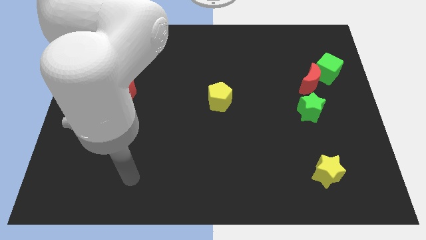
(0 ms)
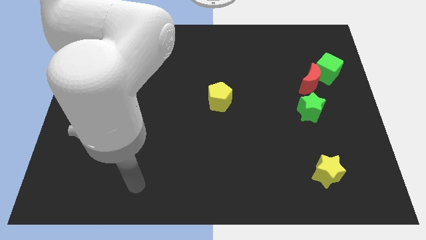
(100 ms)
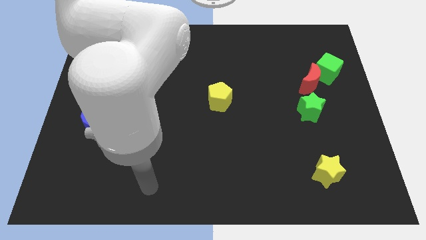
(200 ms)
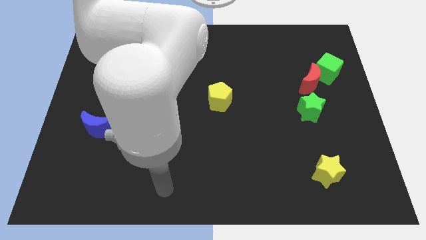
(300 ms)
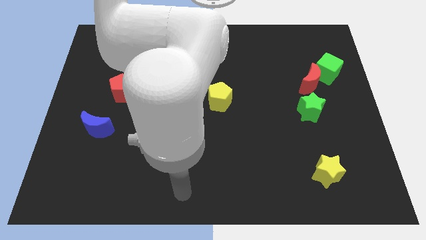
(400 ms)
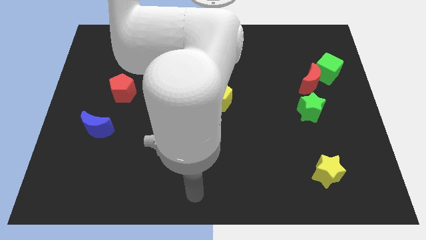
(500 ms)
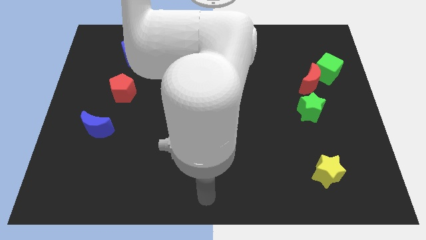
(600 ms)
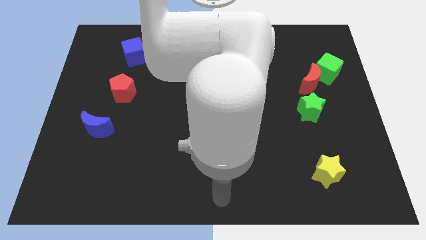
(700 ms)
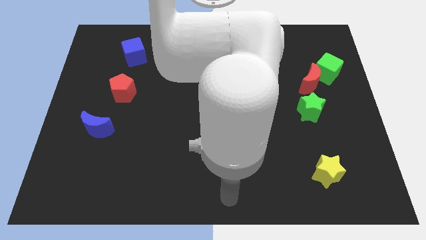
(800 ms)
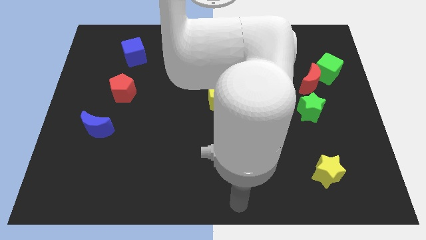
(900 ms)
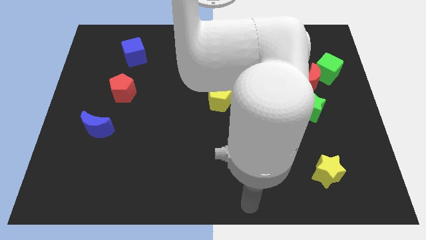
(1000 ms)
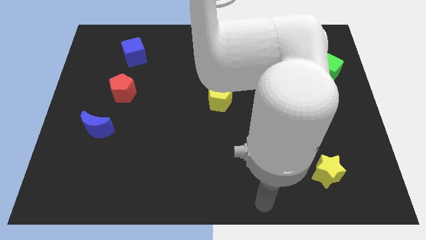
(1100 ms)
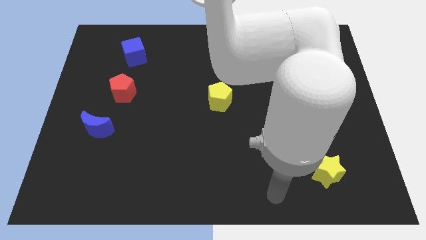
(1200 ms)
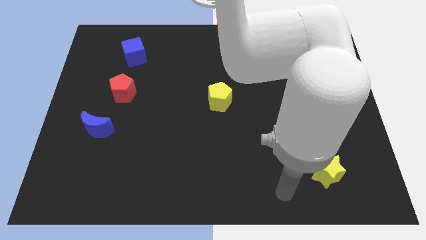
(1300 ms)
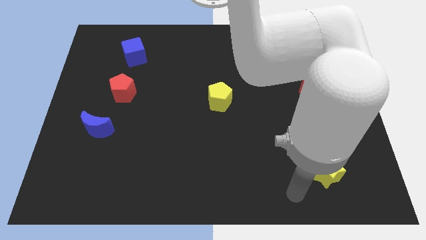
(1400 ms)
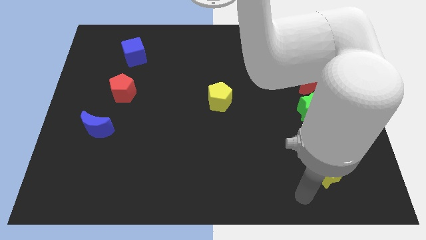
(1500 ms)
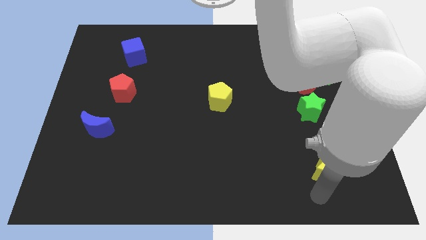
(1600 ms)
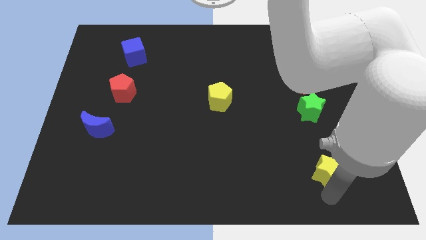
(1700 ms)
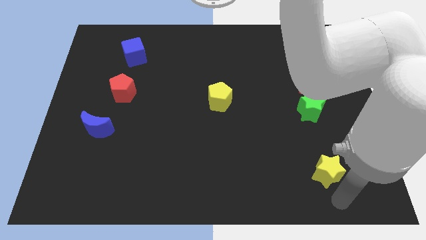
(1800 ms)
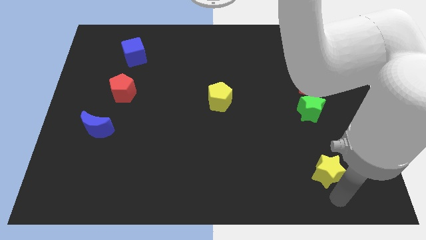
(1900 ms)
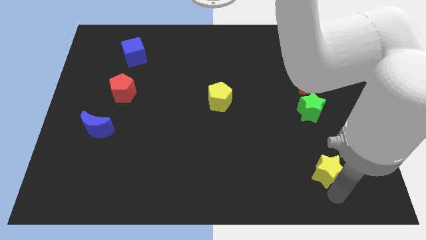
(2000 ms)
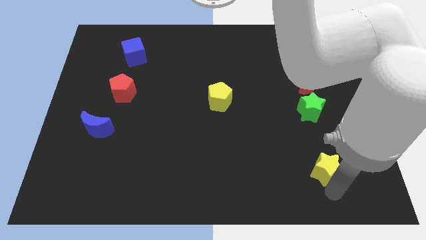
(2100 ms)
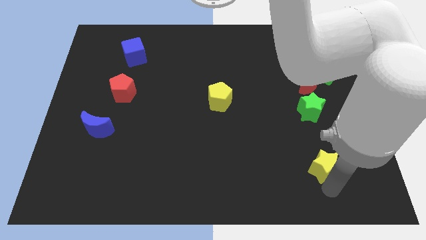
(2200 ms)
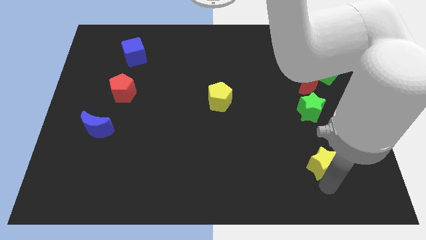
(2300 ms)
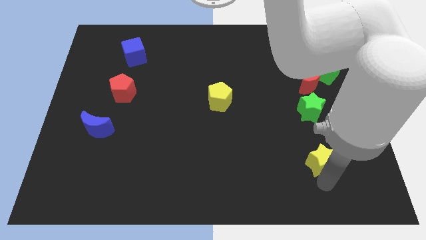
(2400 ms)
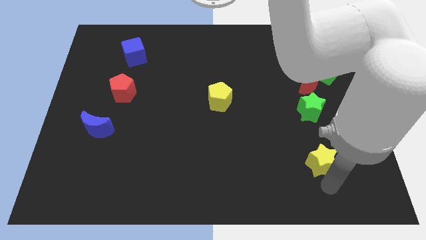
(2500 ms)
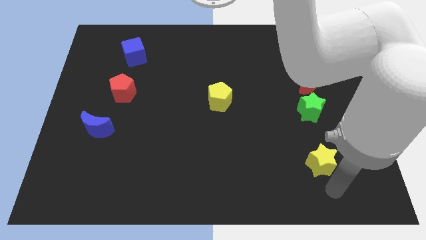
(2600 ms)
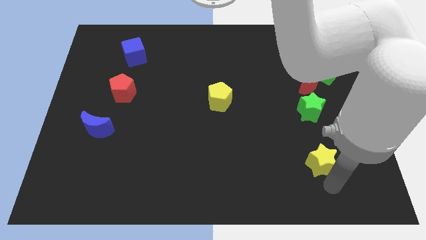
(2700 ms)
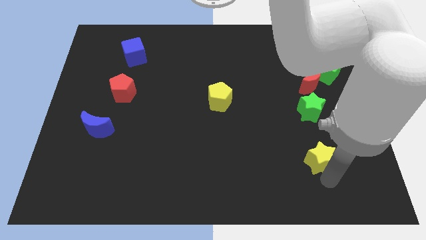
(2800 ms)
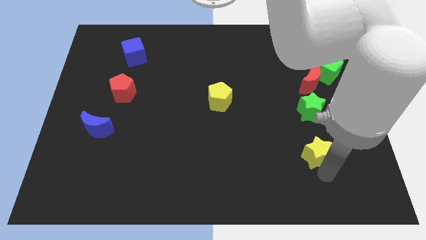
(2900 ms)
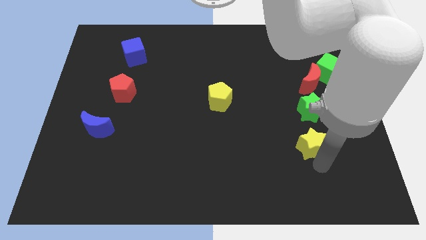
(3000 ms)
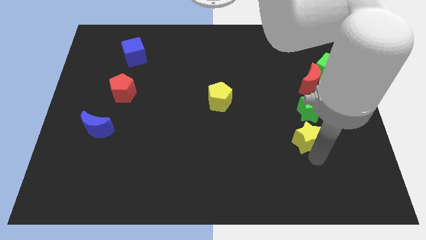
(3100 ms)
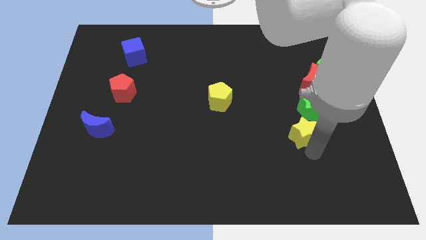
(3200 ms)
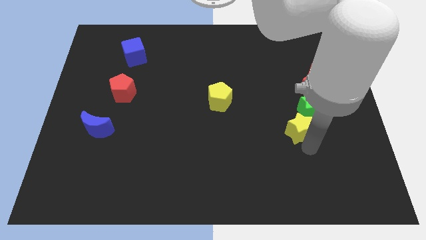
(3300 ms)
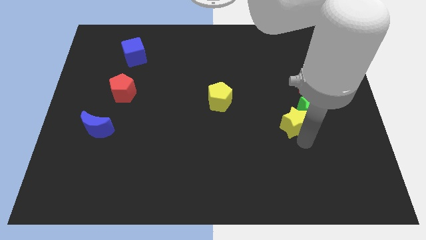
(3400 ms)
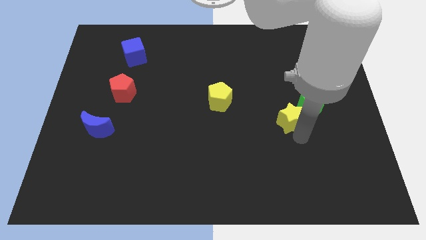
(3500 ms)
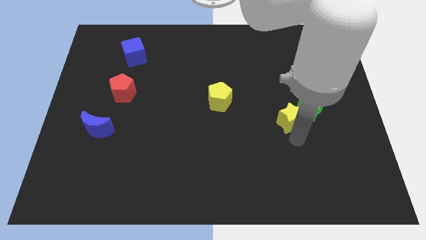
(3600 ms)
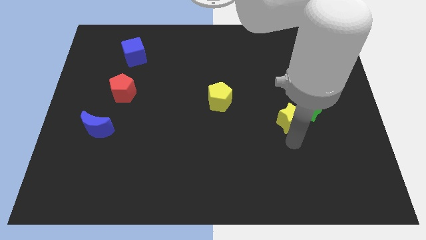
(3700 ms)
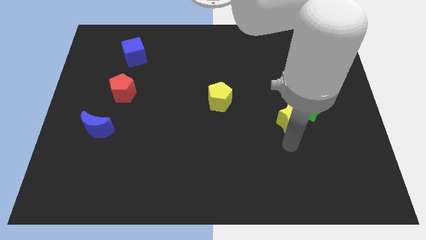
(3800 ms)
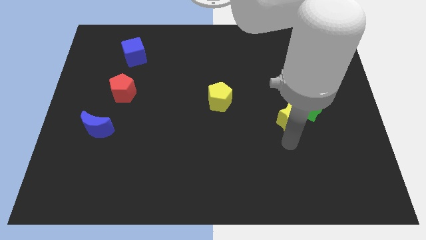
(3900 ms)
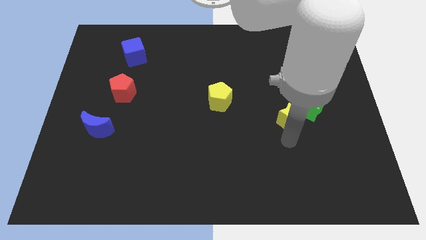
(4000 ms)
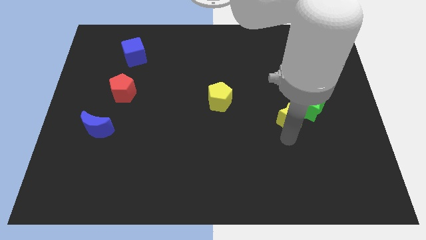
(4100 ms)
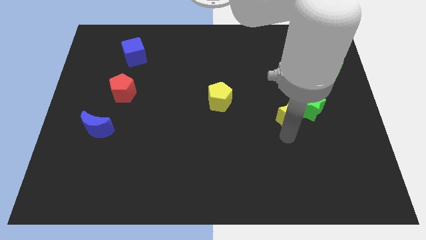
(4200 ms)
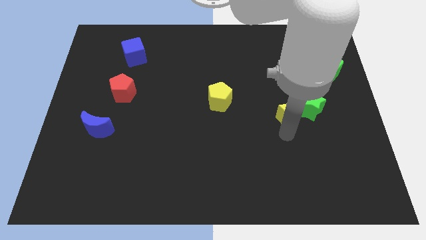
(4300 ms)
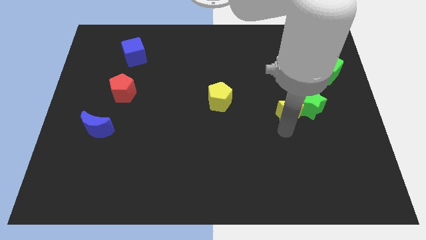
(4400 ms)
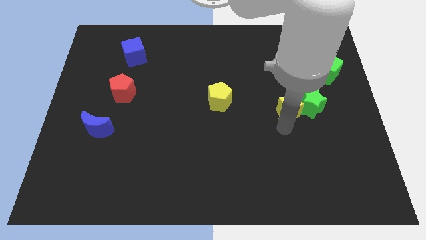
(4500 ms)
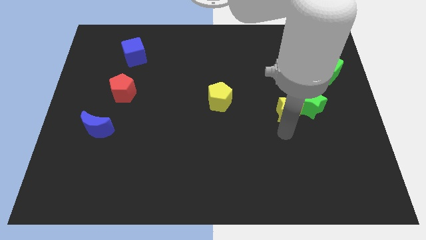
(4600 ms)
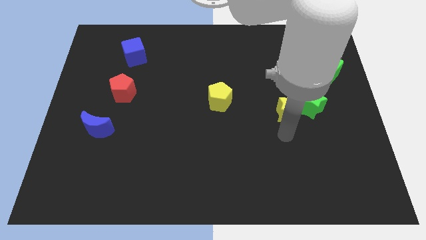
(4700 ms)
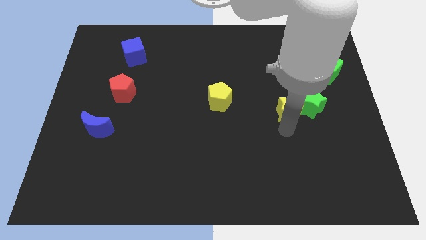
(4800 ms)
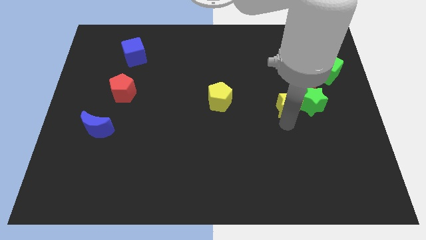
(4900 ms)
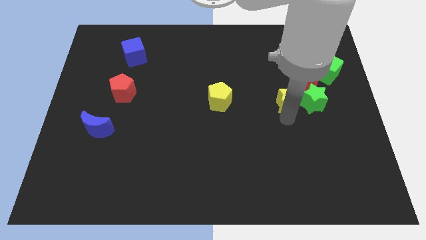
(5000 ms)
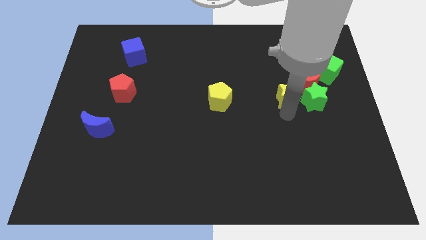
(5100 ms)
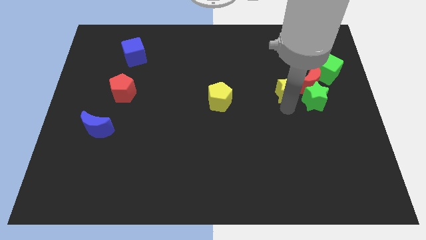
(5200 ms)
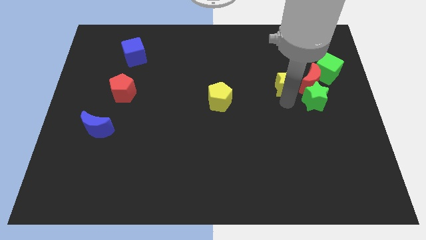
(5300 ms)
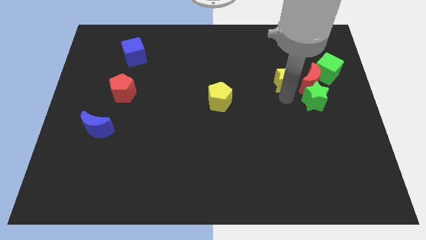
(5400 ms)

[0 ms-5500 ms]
slide the yellow star to the top left side of the red moon

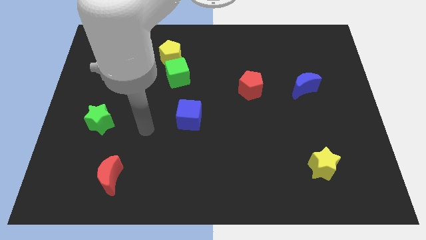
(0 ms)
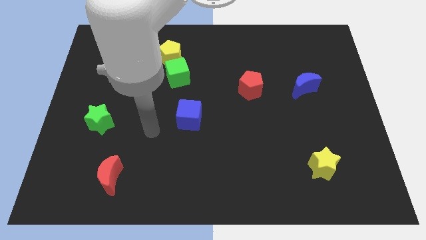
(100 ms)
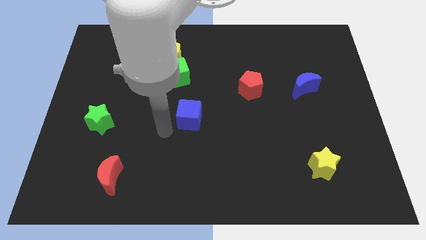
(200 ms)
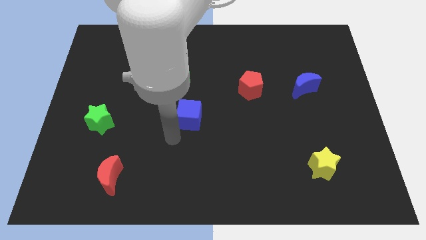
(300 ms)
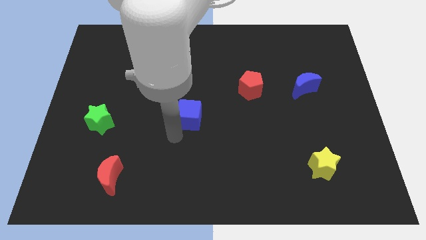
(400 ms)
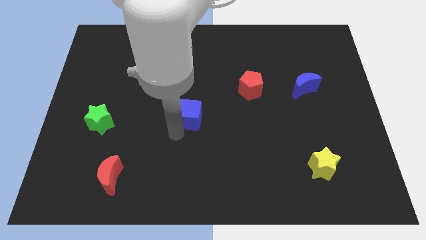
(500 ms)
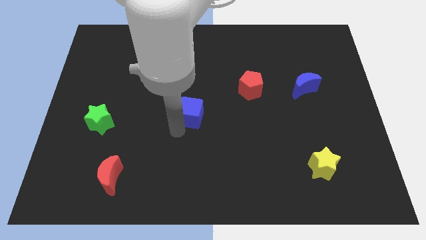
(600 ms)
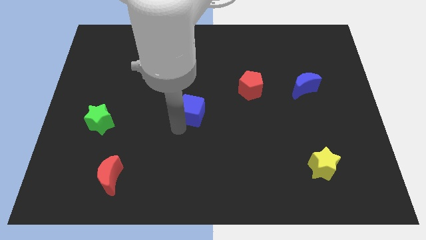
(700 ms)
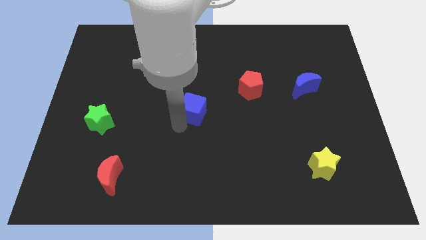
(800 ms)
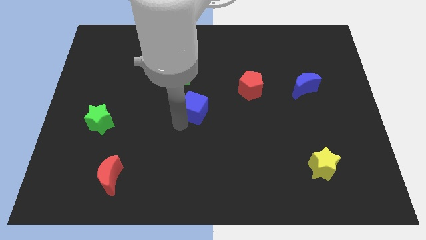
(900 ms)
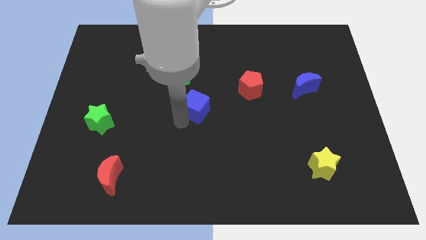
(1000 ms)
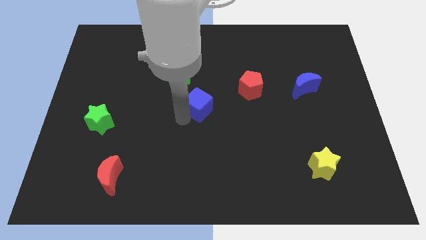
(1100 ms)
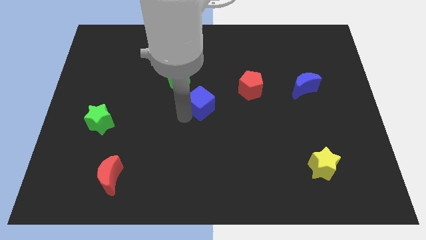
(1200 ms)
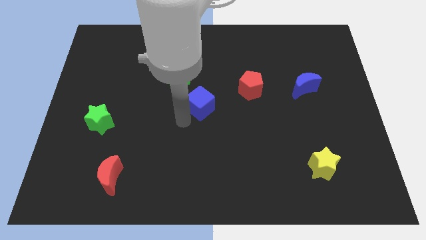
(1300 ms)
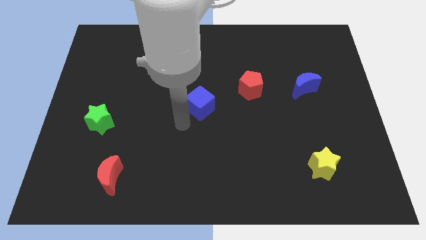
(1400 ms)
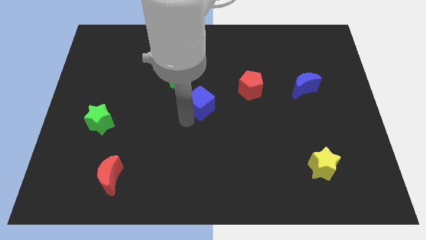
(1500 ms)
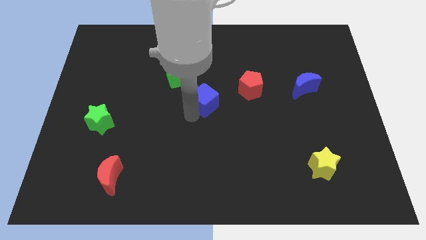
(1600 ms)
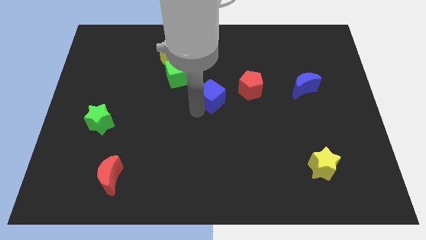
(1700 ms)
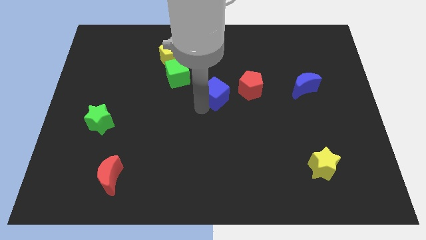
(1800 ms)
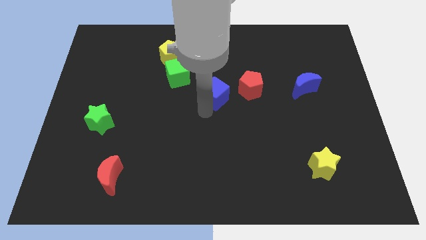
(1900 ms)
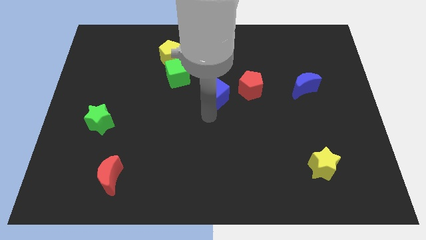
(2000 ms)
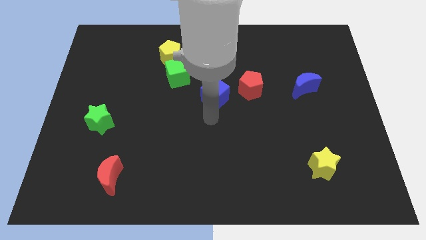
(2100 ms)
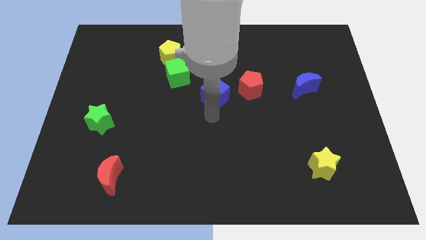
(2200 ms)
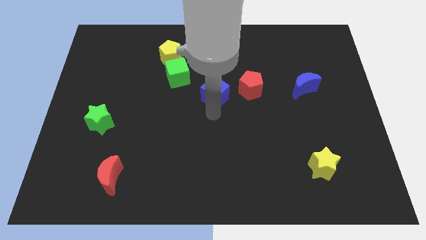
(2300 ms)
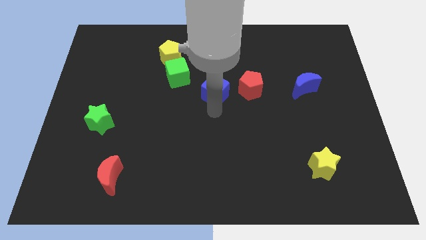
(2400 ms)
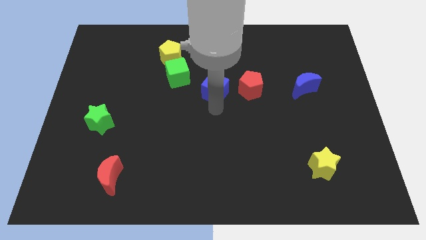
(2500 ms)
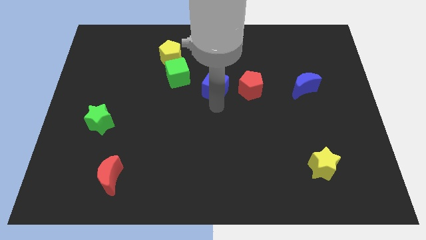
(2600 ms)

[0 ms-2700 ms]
push the blue cube right of the green cube
